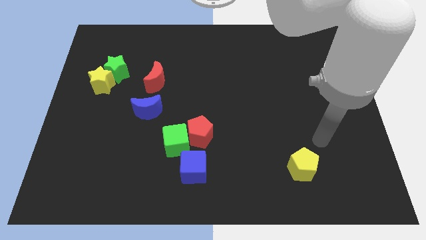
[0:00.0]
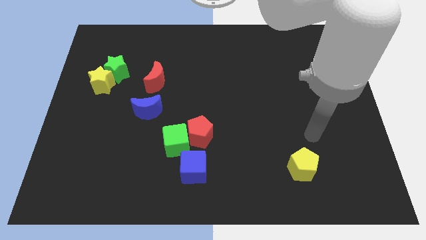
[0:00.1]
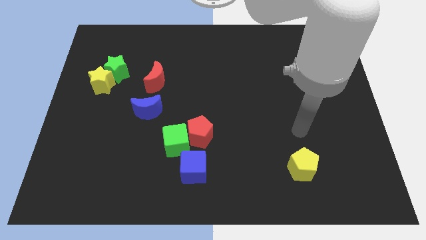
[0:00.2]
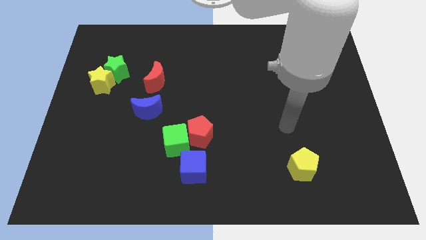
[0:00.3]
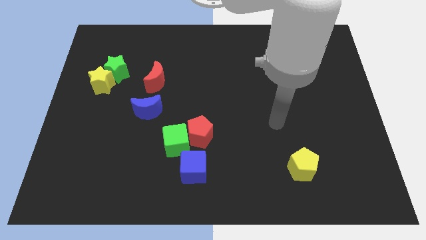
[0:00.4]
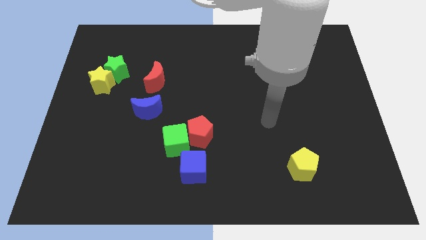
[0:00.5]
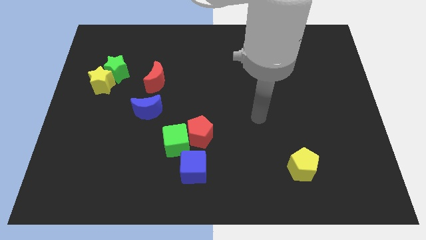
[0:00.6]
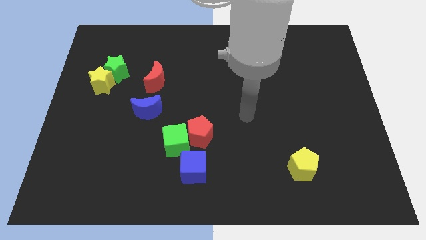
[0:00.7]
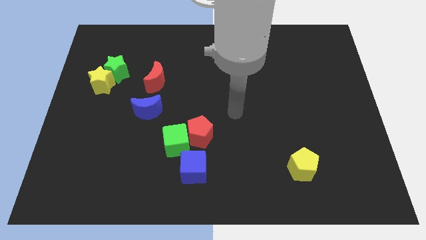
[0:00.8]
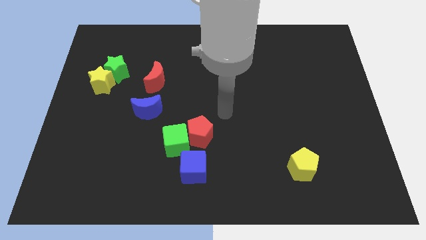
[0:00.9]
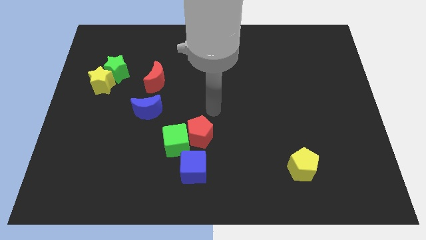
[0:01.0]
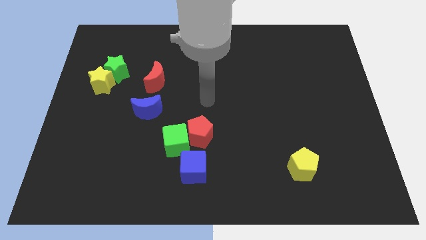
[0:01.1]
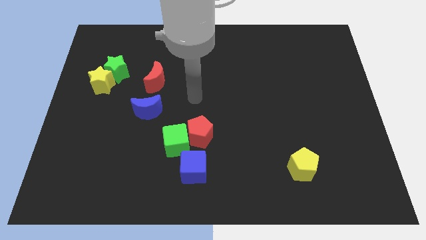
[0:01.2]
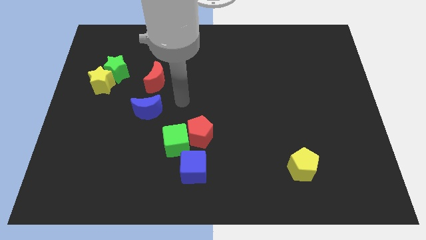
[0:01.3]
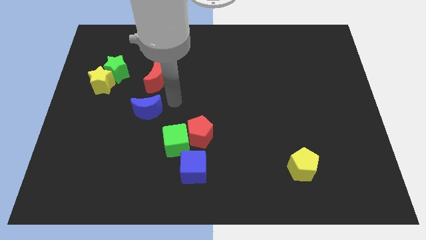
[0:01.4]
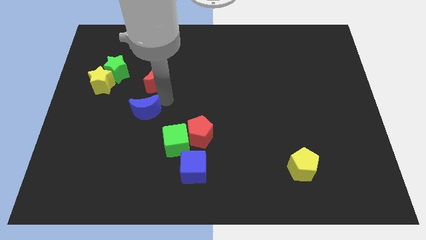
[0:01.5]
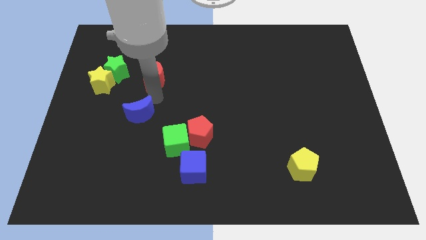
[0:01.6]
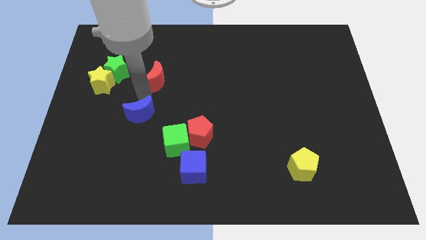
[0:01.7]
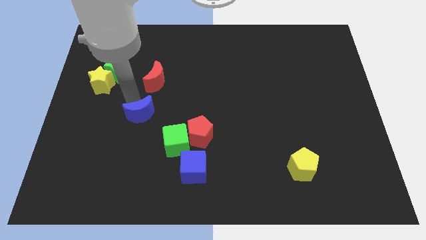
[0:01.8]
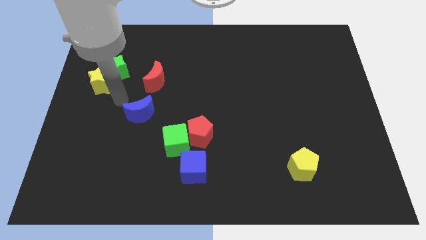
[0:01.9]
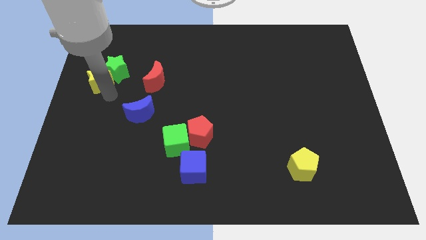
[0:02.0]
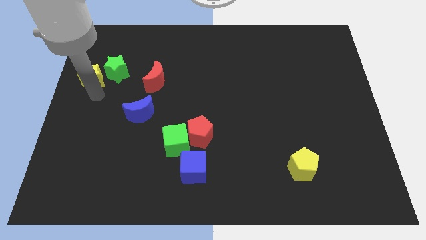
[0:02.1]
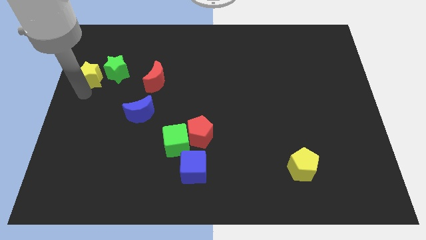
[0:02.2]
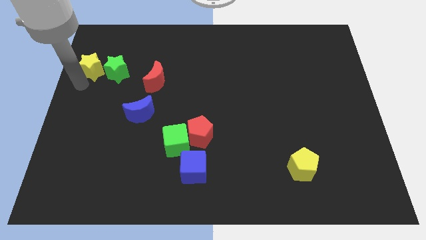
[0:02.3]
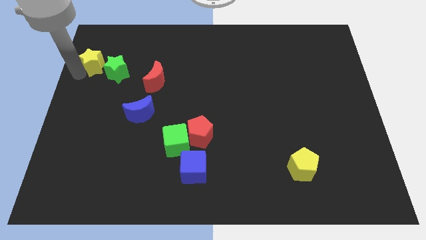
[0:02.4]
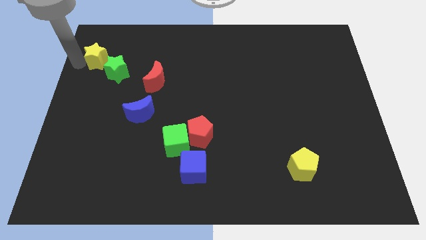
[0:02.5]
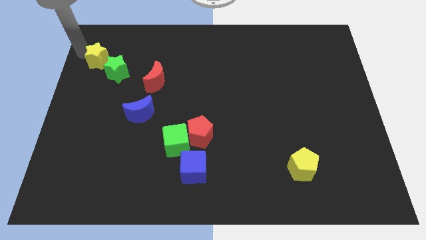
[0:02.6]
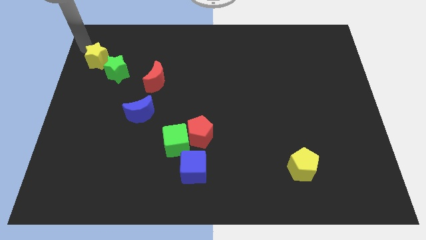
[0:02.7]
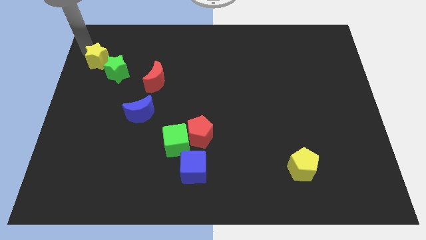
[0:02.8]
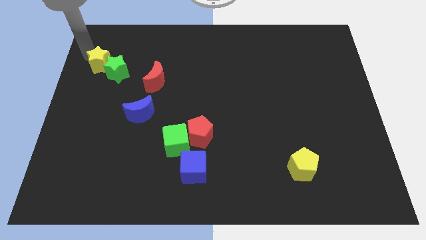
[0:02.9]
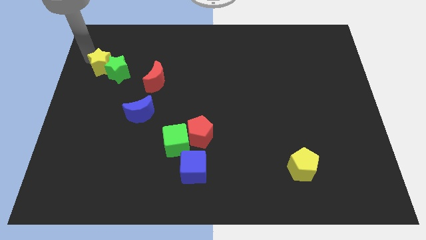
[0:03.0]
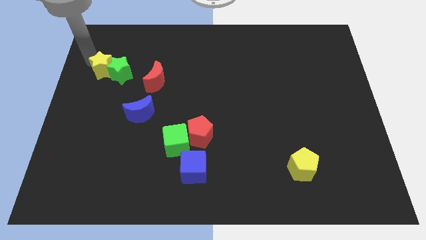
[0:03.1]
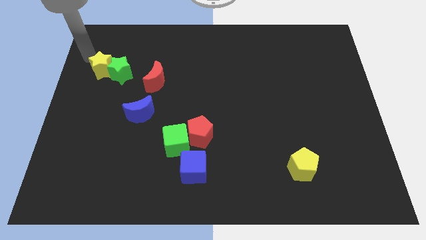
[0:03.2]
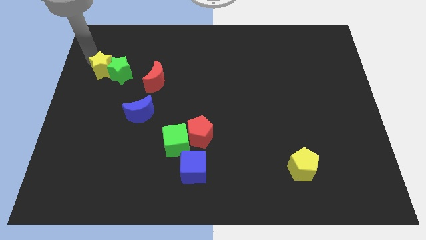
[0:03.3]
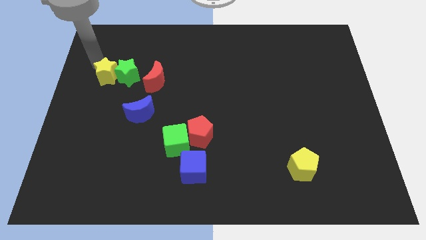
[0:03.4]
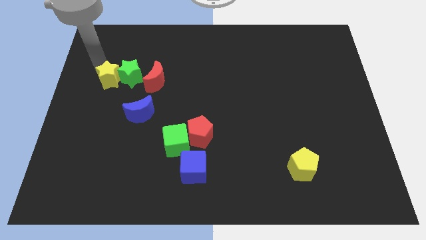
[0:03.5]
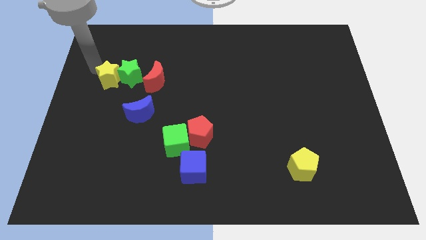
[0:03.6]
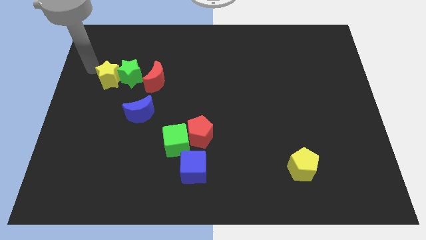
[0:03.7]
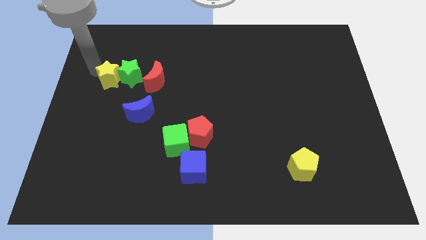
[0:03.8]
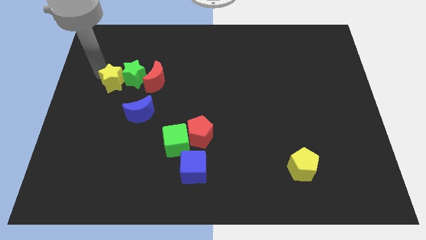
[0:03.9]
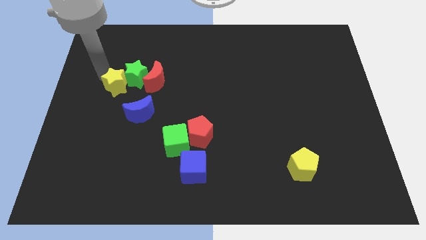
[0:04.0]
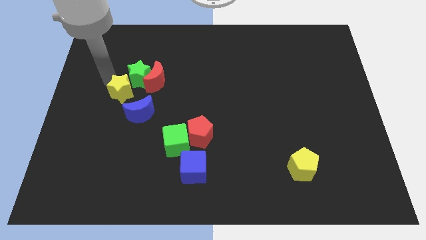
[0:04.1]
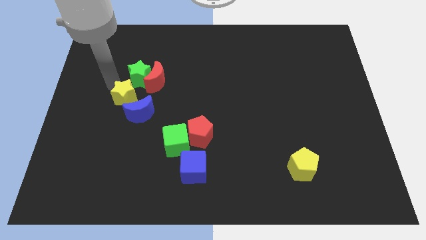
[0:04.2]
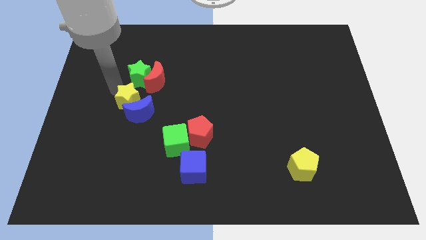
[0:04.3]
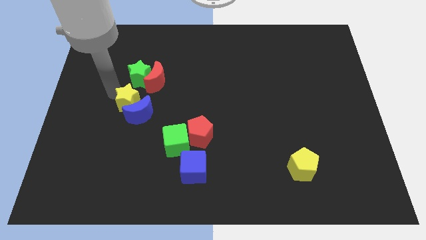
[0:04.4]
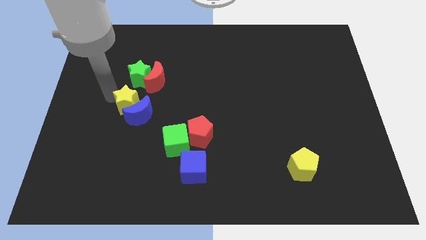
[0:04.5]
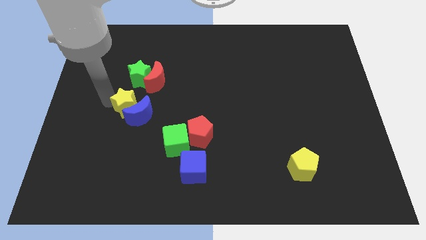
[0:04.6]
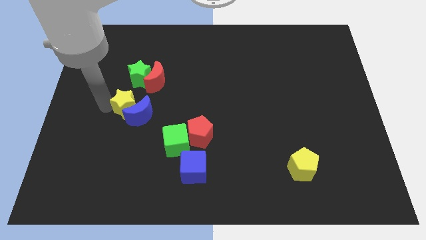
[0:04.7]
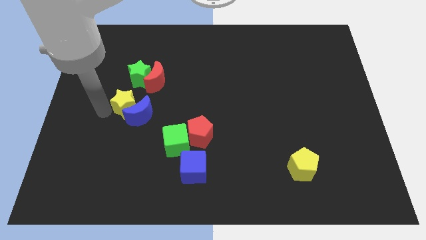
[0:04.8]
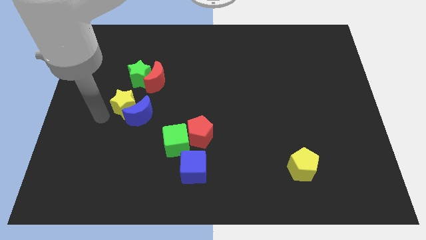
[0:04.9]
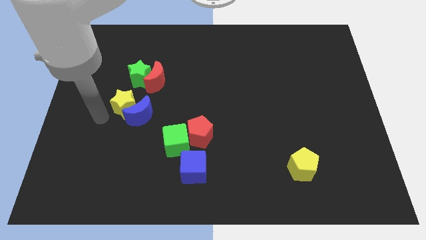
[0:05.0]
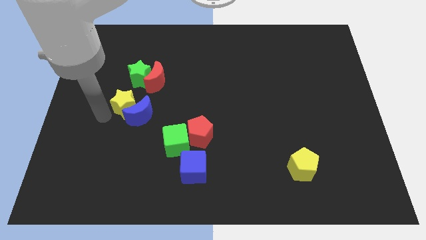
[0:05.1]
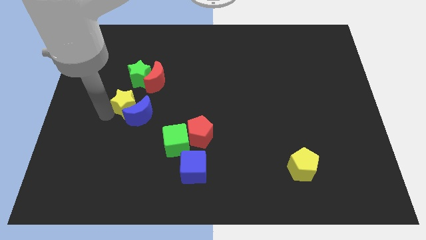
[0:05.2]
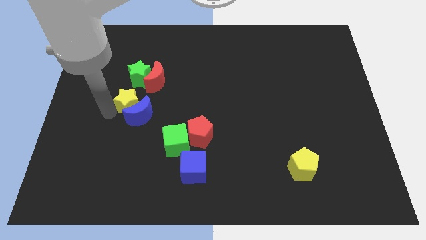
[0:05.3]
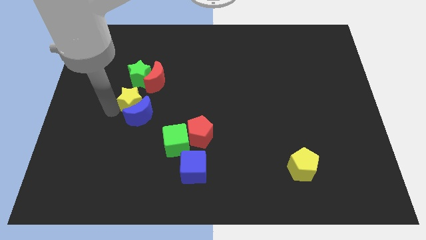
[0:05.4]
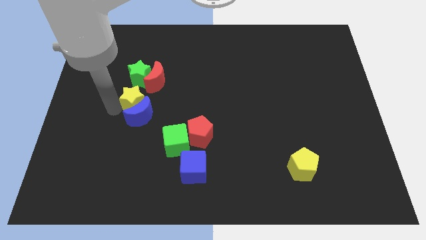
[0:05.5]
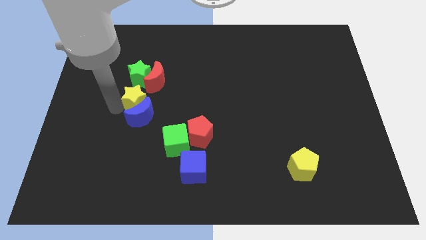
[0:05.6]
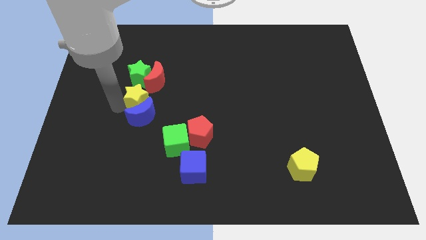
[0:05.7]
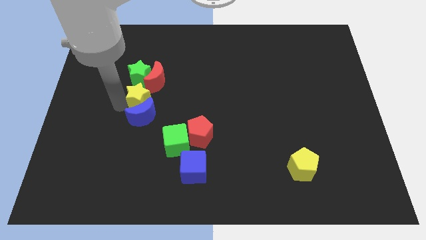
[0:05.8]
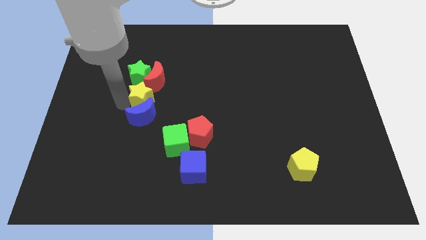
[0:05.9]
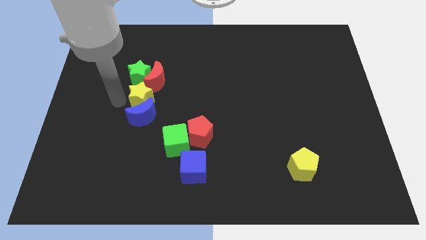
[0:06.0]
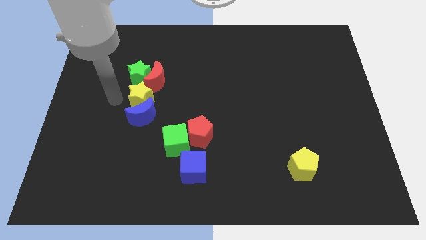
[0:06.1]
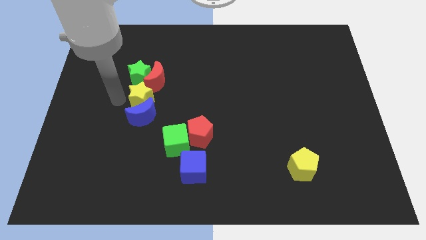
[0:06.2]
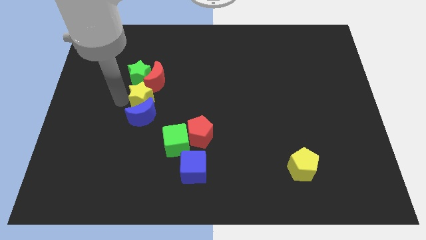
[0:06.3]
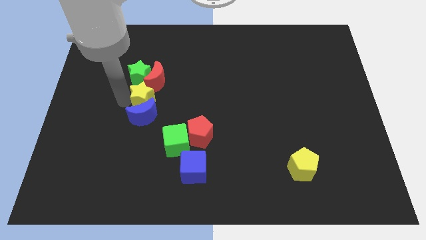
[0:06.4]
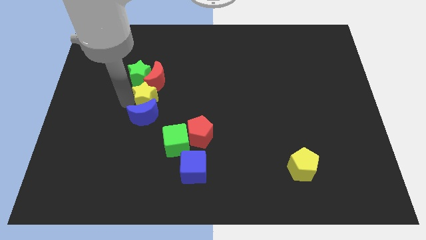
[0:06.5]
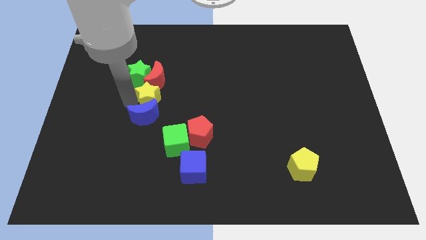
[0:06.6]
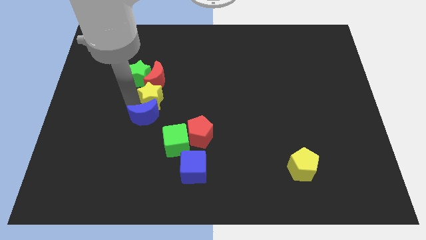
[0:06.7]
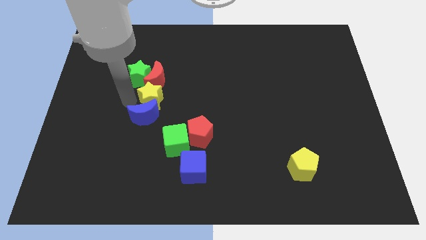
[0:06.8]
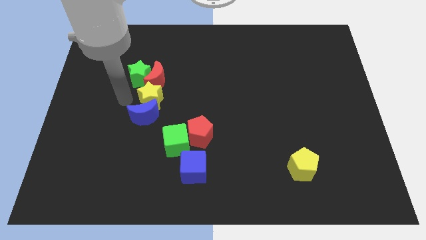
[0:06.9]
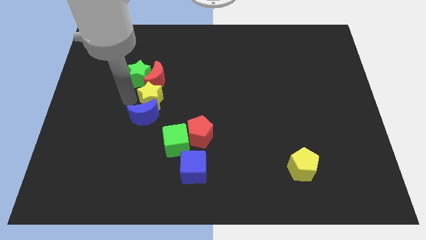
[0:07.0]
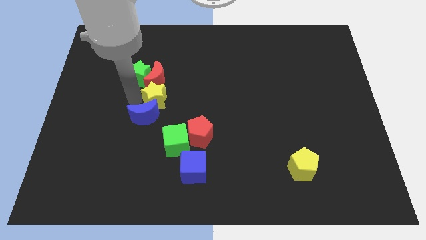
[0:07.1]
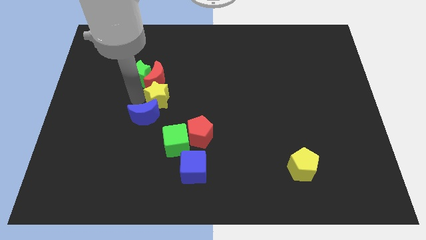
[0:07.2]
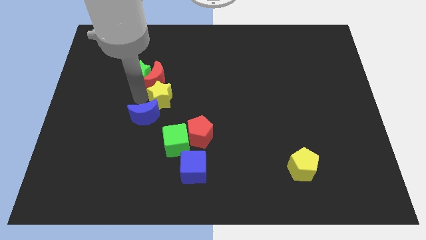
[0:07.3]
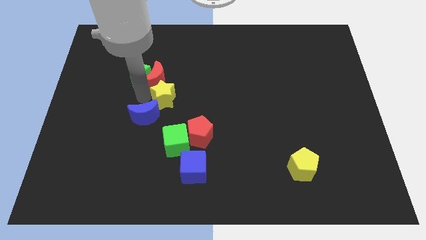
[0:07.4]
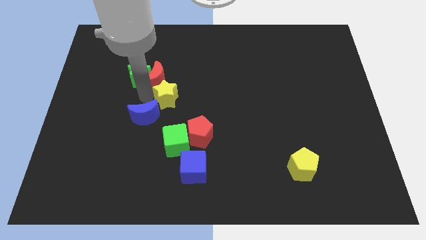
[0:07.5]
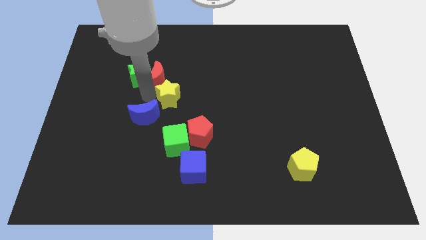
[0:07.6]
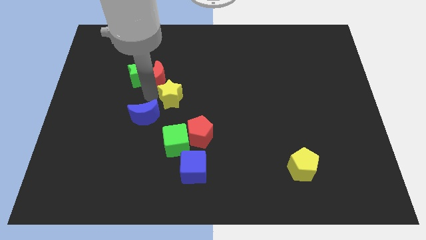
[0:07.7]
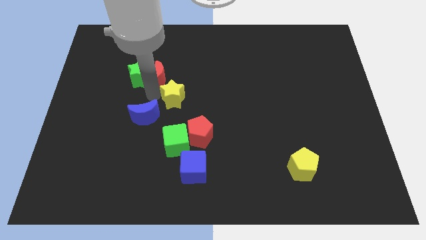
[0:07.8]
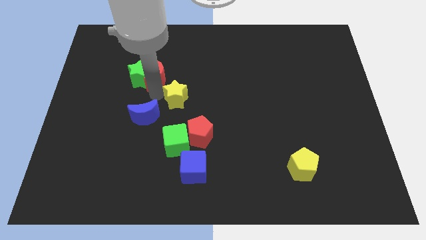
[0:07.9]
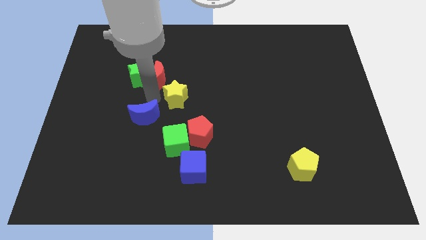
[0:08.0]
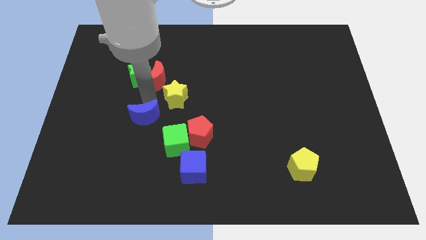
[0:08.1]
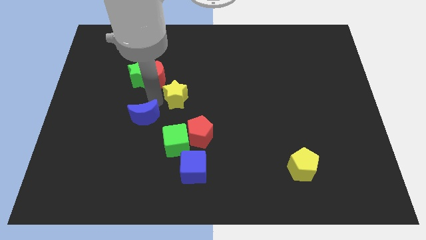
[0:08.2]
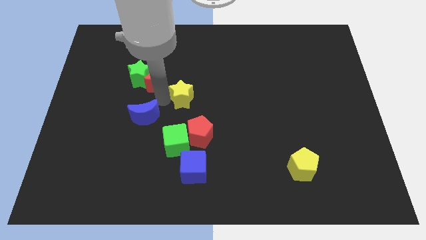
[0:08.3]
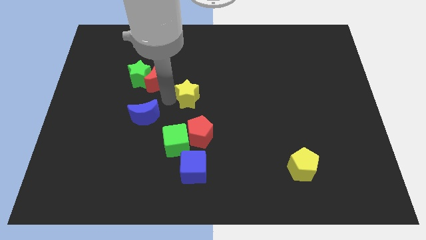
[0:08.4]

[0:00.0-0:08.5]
slide the yellow star to the right
